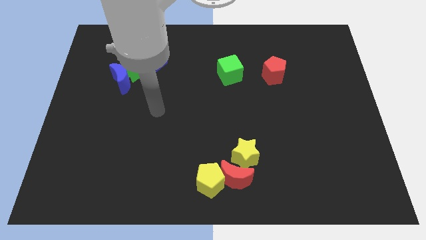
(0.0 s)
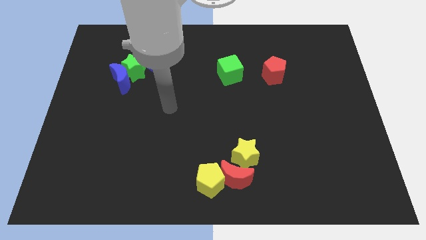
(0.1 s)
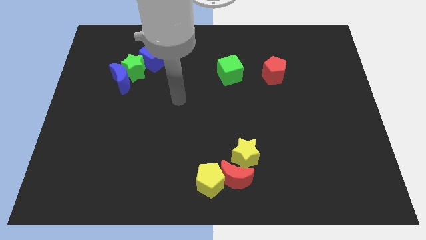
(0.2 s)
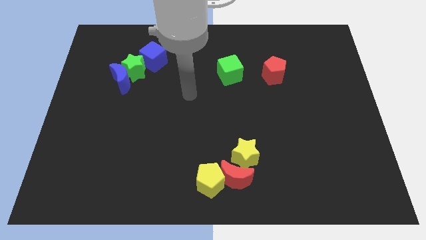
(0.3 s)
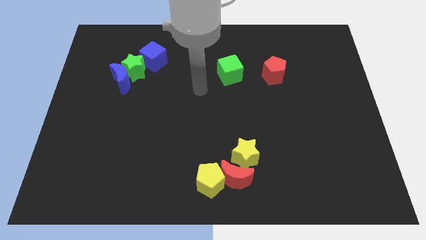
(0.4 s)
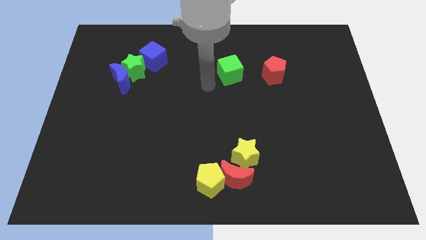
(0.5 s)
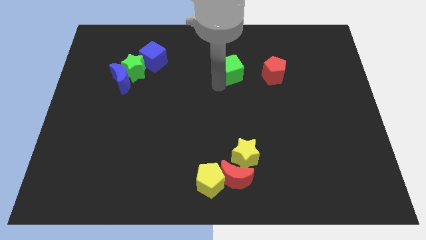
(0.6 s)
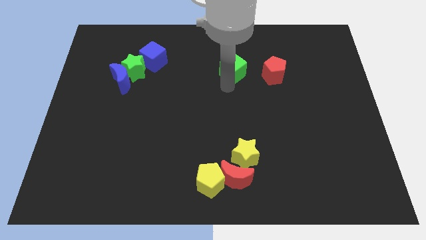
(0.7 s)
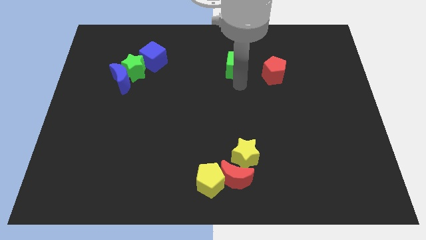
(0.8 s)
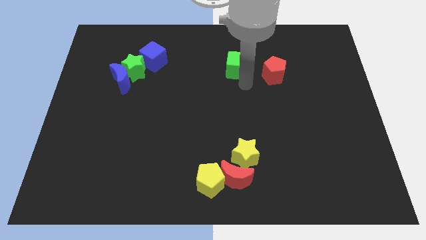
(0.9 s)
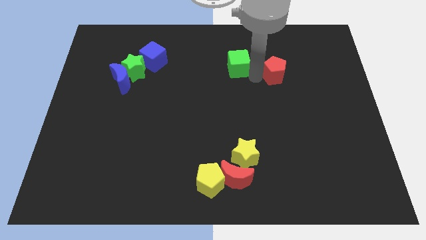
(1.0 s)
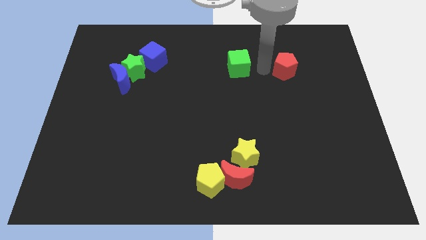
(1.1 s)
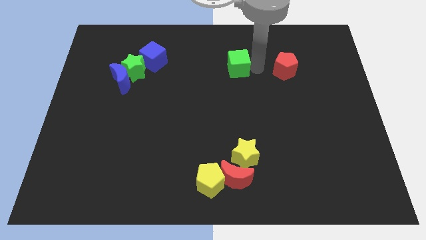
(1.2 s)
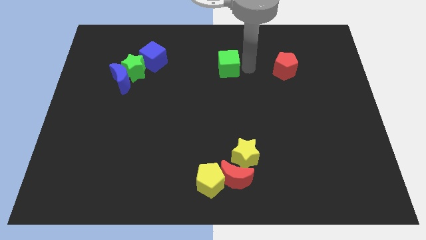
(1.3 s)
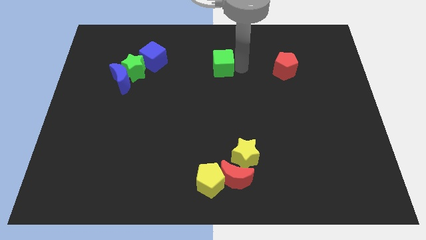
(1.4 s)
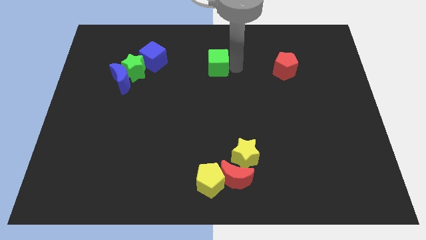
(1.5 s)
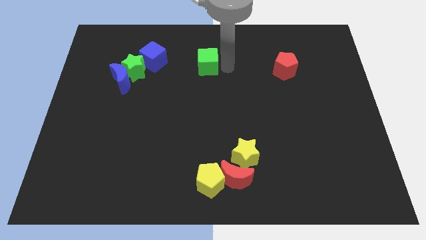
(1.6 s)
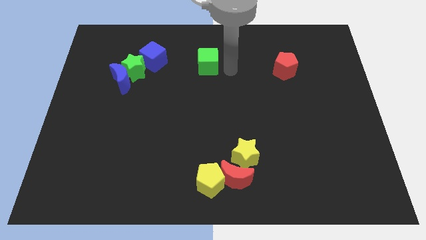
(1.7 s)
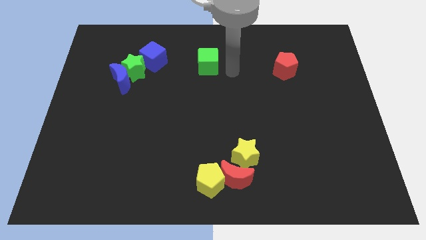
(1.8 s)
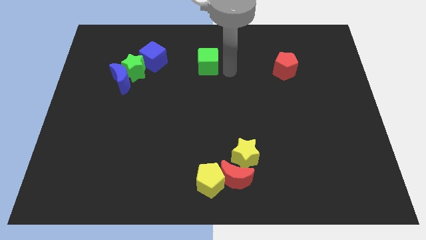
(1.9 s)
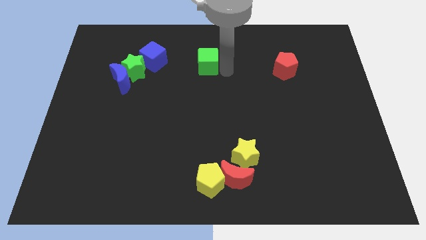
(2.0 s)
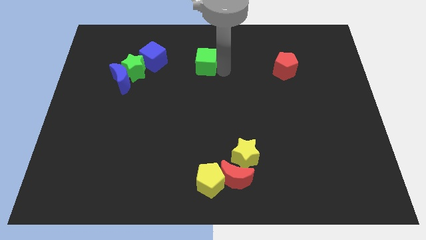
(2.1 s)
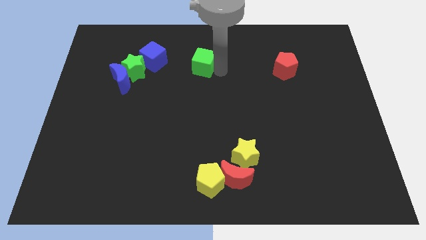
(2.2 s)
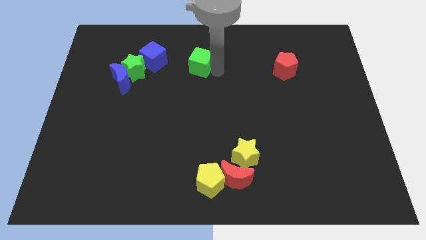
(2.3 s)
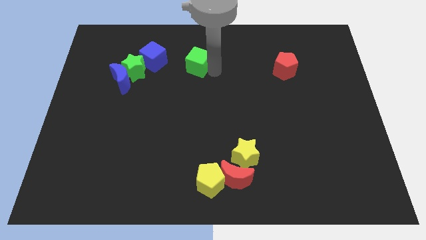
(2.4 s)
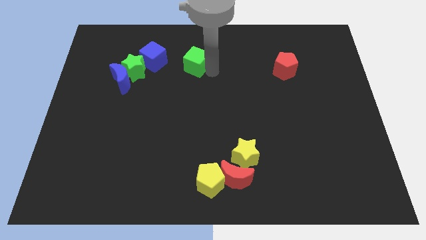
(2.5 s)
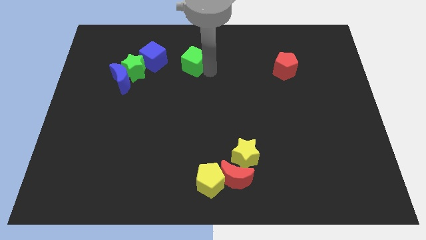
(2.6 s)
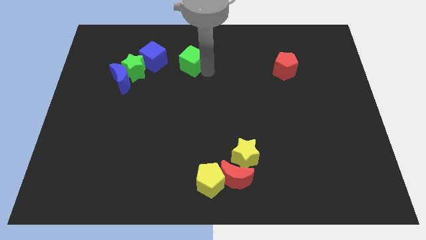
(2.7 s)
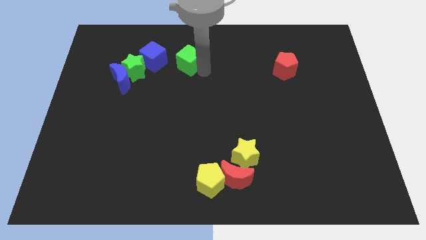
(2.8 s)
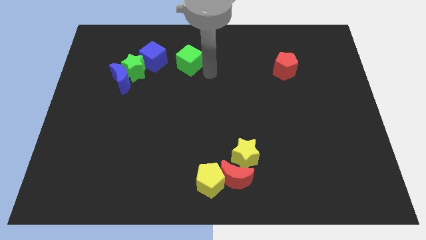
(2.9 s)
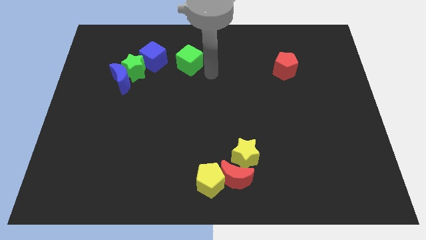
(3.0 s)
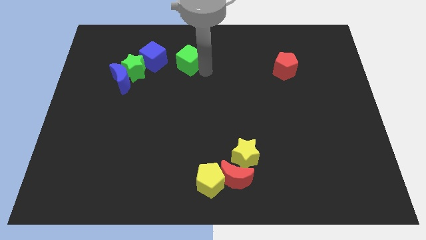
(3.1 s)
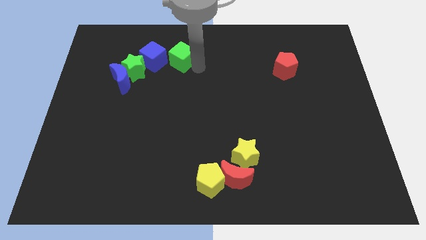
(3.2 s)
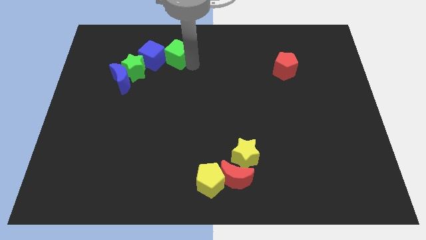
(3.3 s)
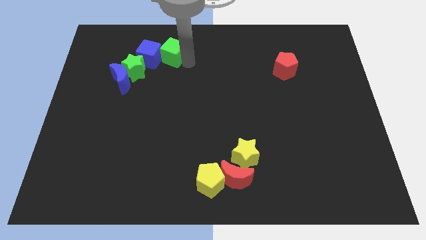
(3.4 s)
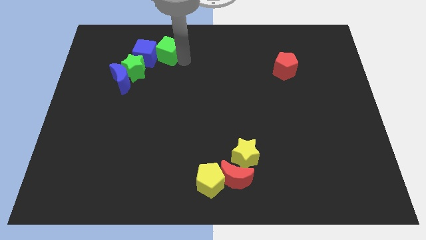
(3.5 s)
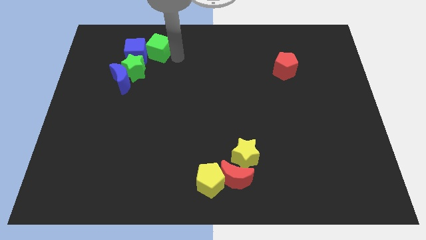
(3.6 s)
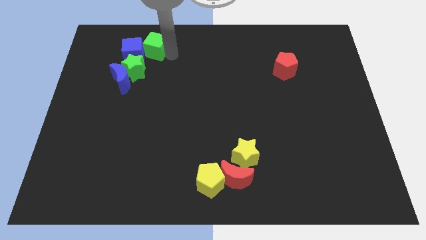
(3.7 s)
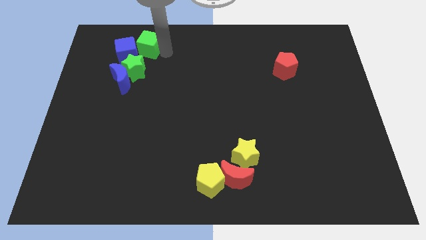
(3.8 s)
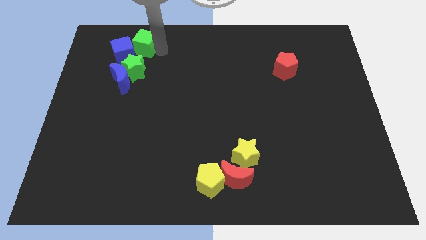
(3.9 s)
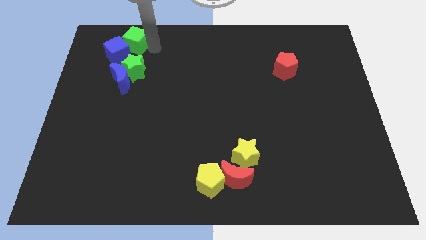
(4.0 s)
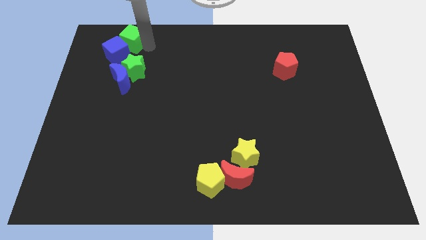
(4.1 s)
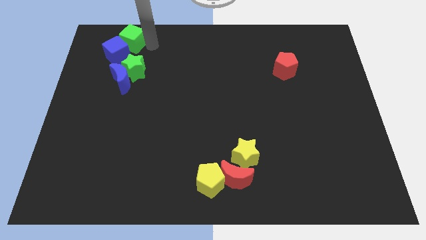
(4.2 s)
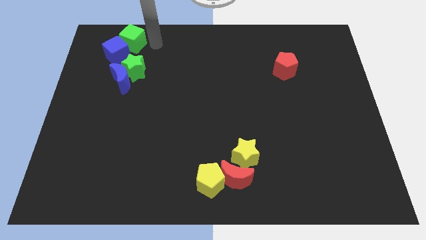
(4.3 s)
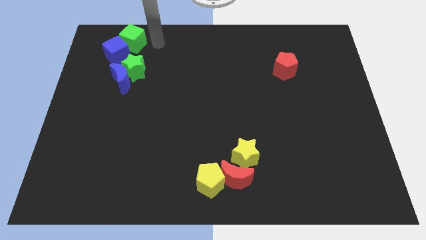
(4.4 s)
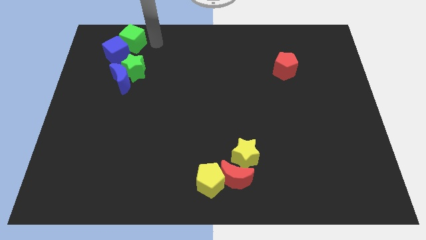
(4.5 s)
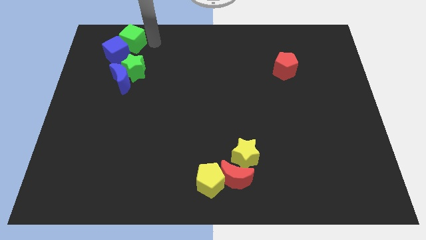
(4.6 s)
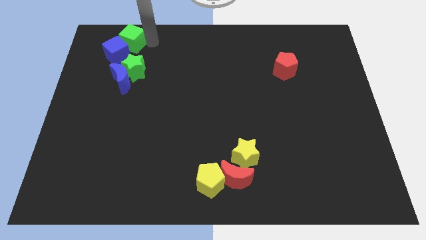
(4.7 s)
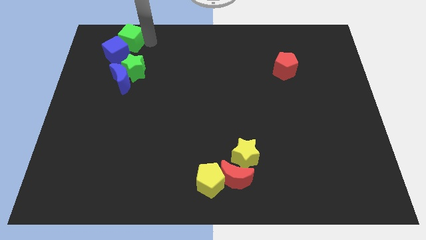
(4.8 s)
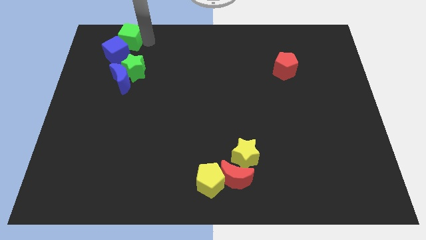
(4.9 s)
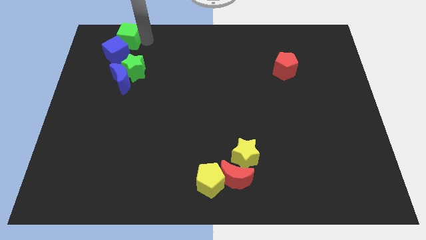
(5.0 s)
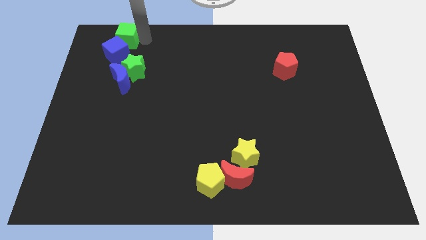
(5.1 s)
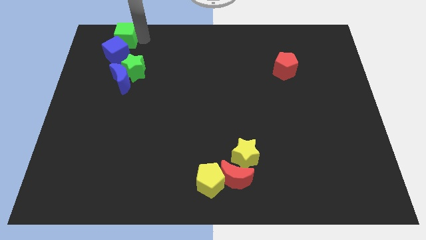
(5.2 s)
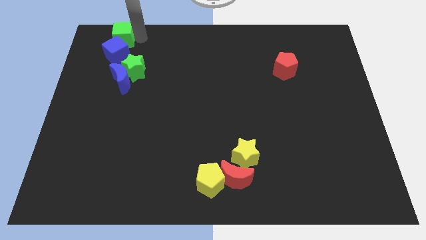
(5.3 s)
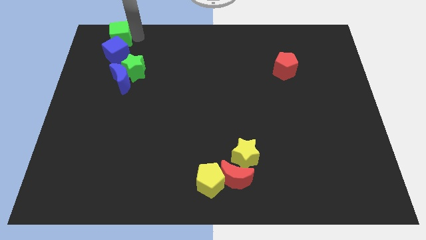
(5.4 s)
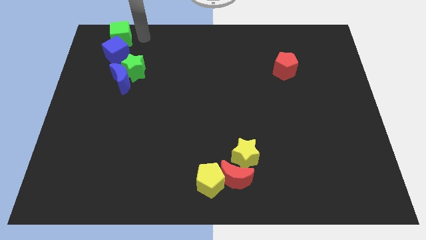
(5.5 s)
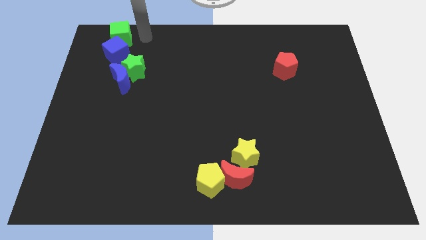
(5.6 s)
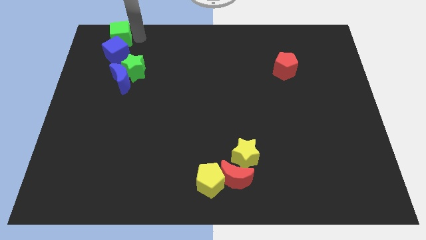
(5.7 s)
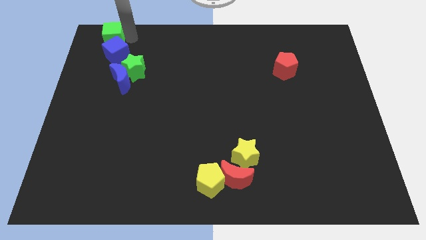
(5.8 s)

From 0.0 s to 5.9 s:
push the green cube to the top left
